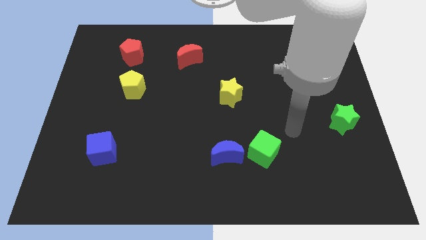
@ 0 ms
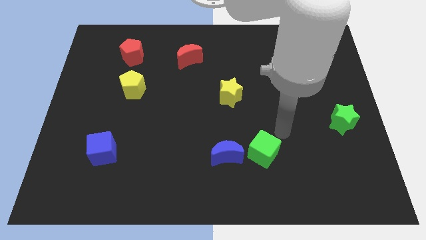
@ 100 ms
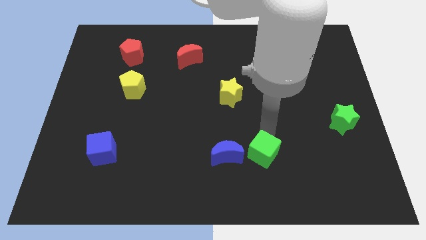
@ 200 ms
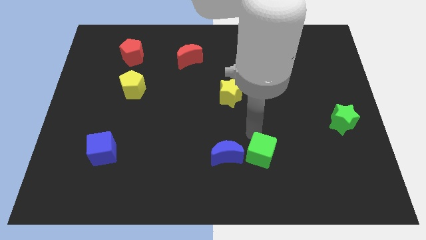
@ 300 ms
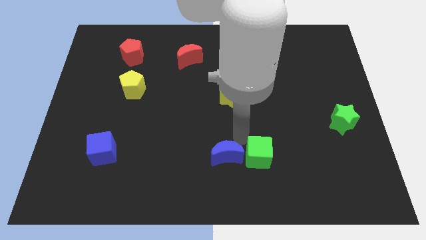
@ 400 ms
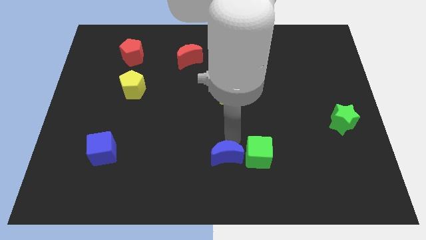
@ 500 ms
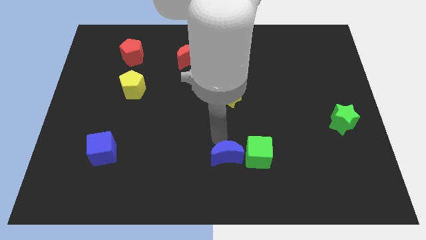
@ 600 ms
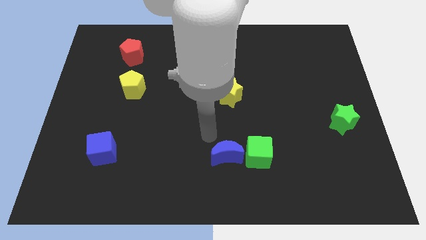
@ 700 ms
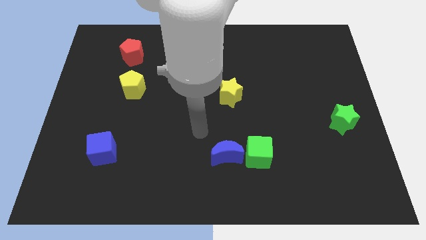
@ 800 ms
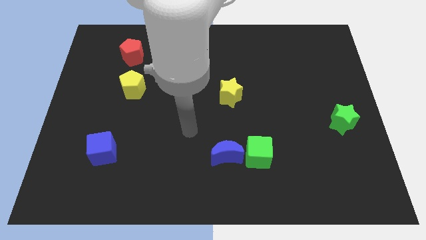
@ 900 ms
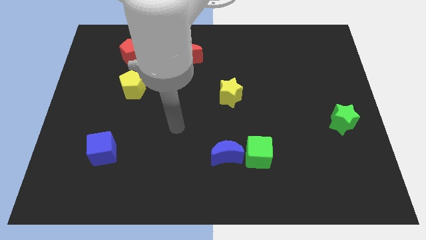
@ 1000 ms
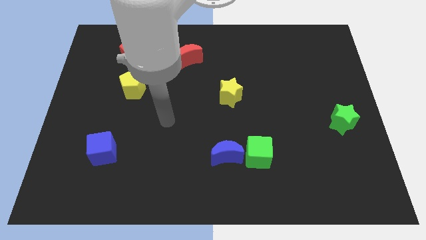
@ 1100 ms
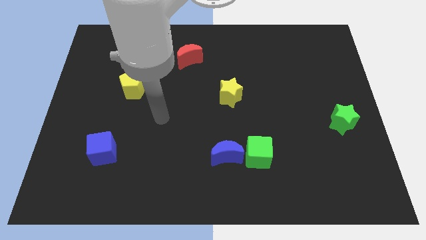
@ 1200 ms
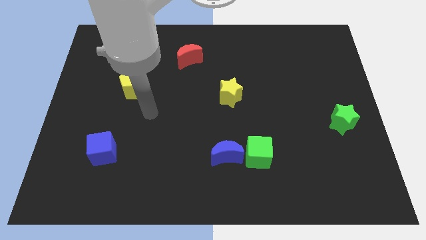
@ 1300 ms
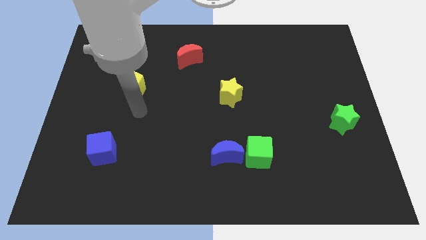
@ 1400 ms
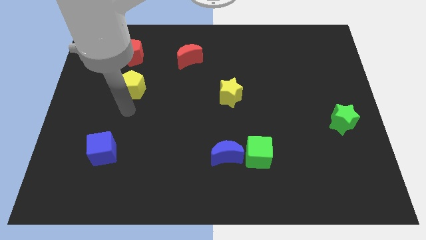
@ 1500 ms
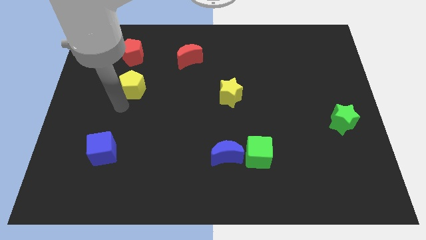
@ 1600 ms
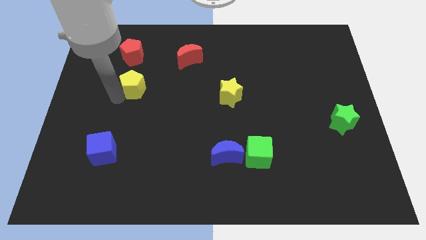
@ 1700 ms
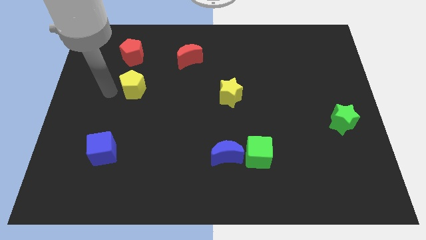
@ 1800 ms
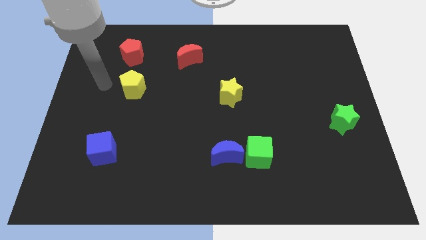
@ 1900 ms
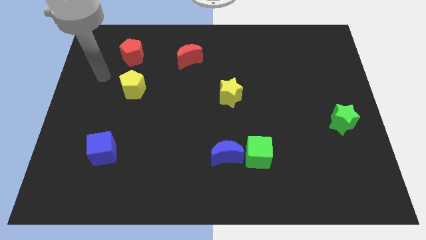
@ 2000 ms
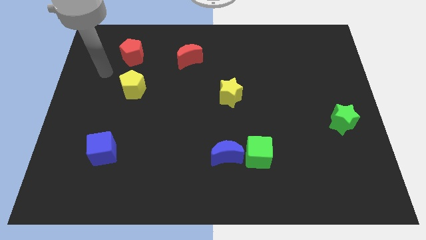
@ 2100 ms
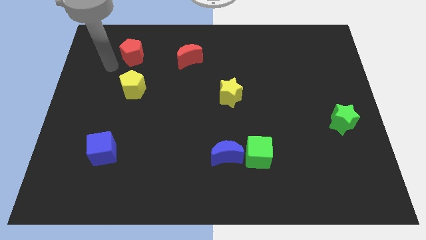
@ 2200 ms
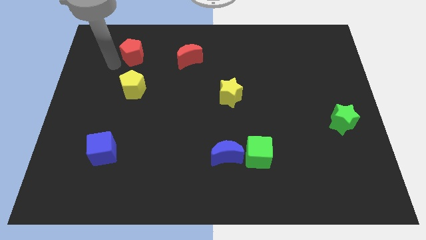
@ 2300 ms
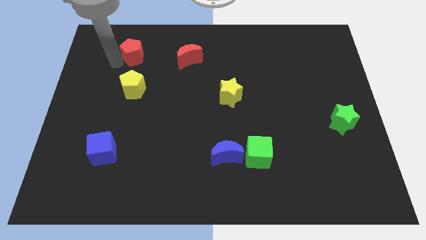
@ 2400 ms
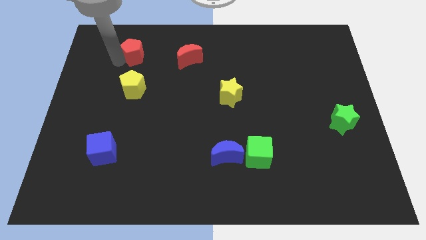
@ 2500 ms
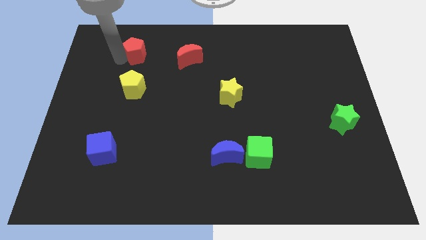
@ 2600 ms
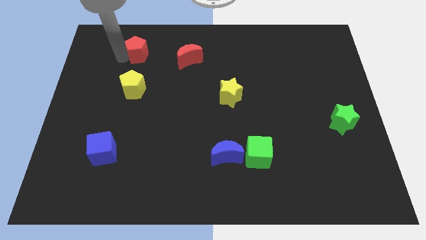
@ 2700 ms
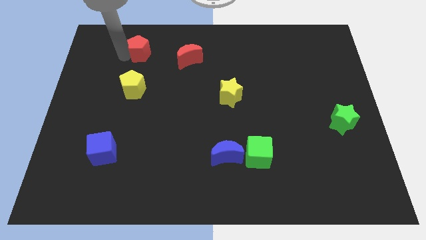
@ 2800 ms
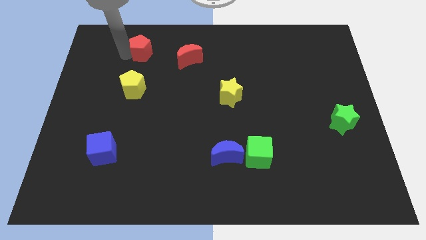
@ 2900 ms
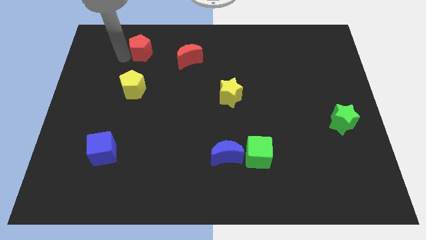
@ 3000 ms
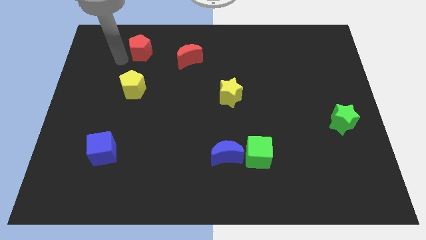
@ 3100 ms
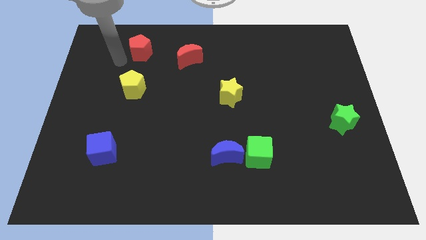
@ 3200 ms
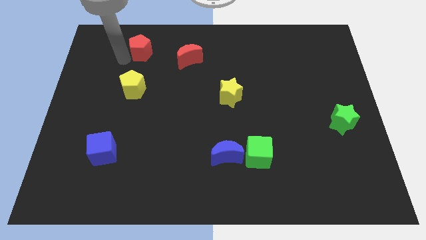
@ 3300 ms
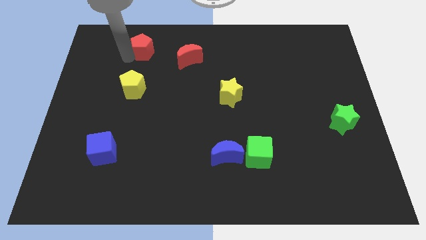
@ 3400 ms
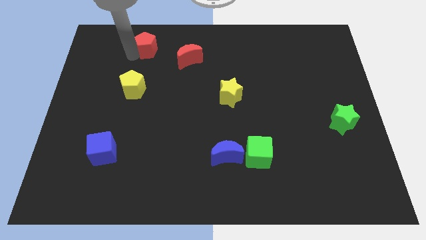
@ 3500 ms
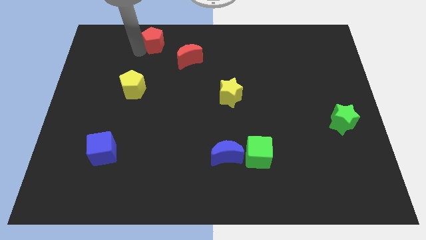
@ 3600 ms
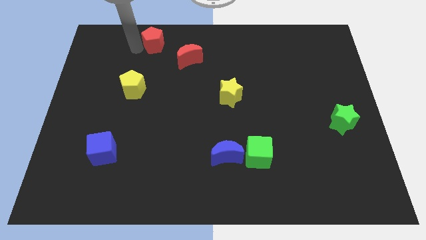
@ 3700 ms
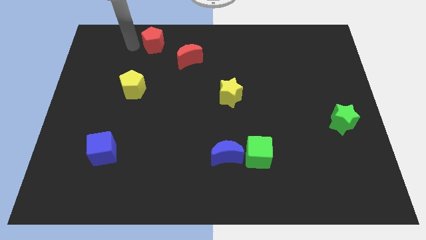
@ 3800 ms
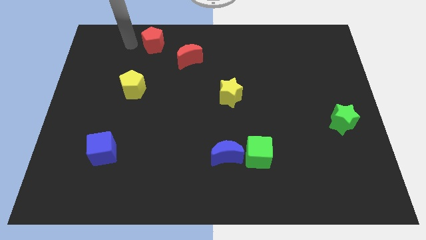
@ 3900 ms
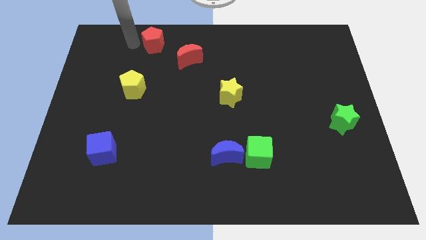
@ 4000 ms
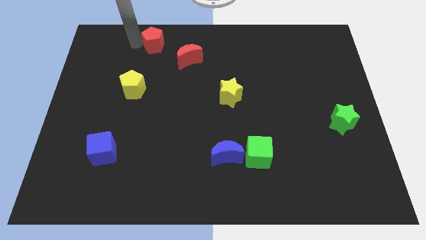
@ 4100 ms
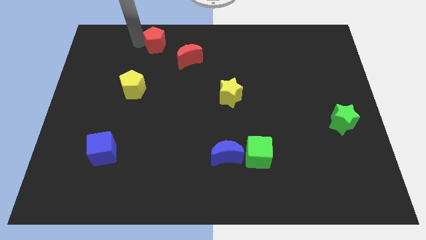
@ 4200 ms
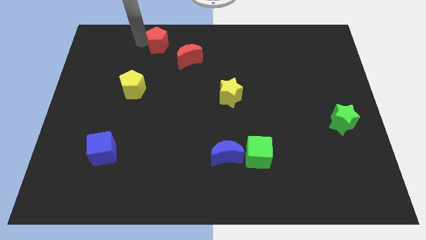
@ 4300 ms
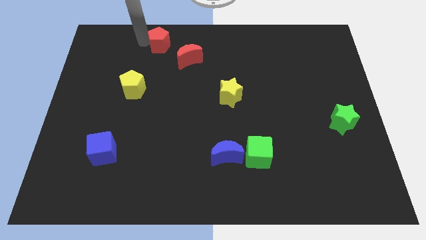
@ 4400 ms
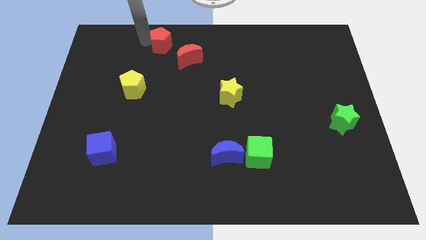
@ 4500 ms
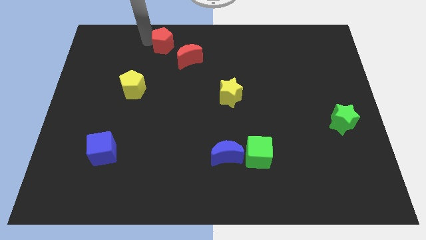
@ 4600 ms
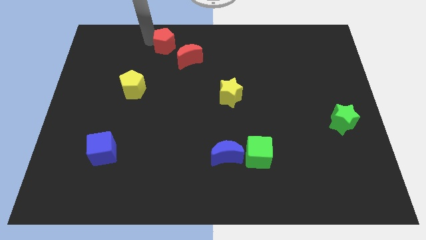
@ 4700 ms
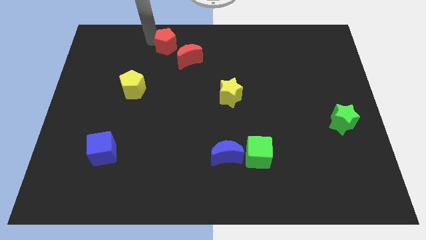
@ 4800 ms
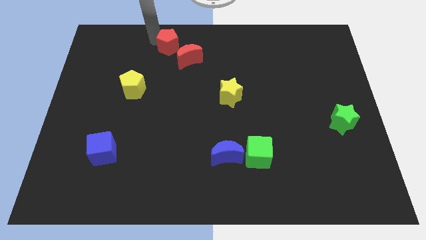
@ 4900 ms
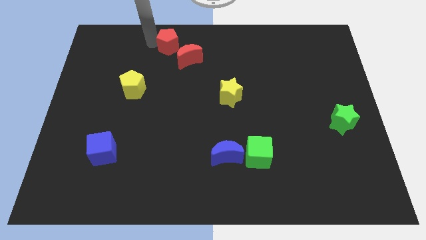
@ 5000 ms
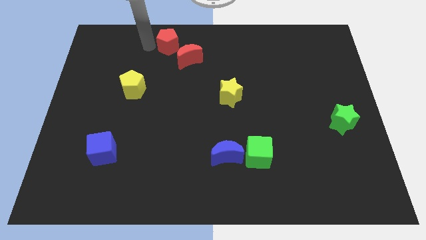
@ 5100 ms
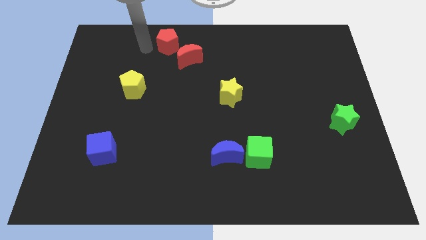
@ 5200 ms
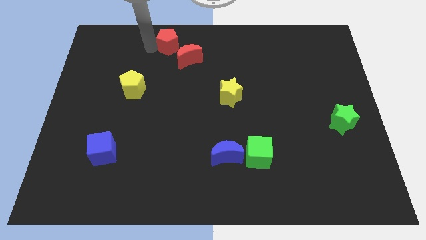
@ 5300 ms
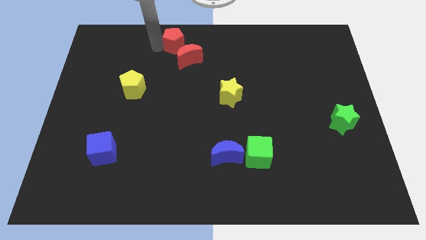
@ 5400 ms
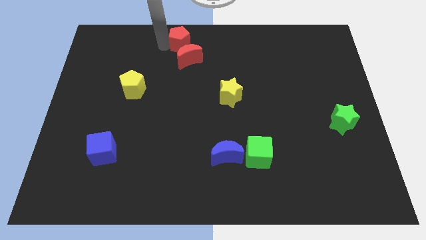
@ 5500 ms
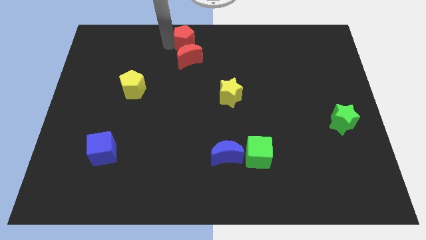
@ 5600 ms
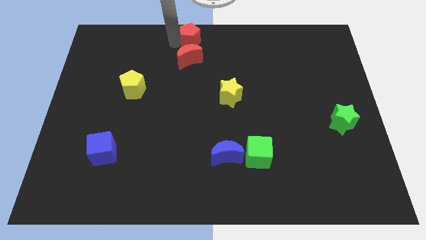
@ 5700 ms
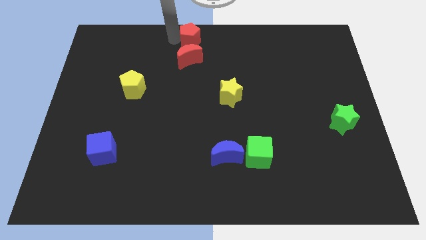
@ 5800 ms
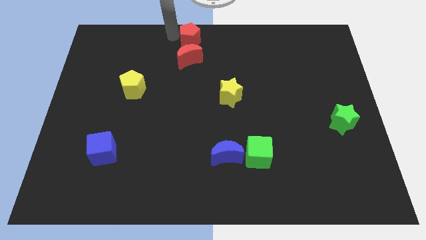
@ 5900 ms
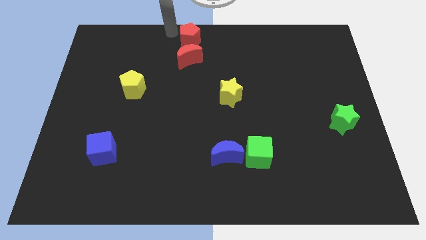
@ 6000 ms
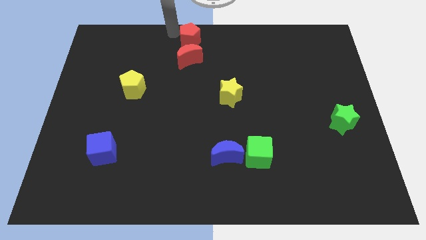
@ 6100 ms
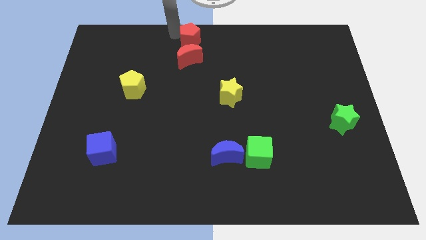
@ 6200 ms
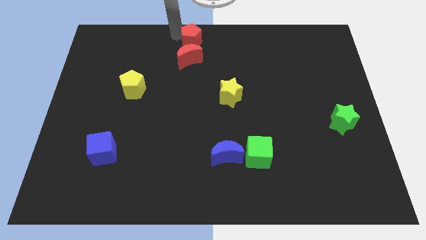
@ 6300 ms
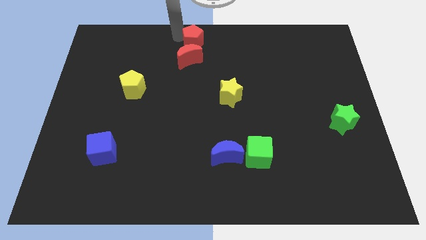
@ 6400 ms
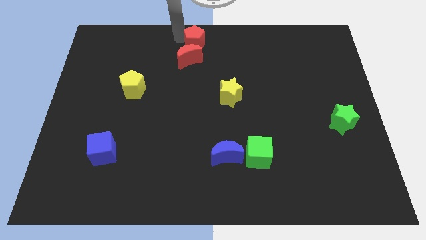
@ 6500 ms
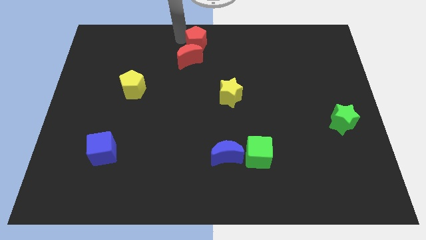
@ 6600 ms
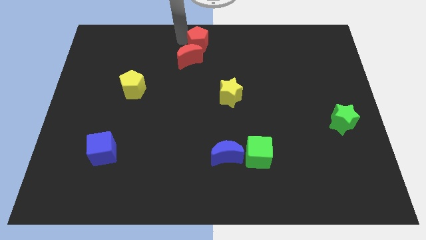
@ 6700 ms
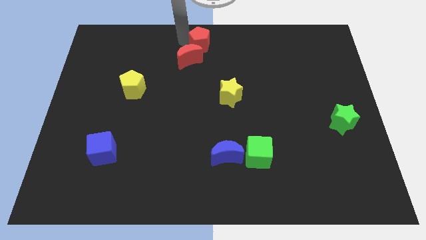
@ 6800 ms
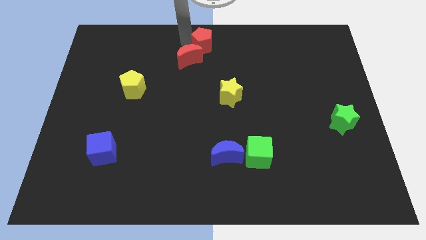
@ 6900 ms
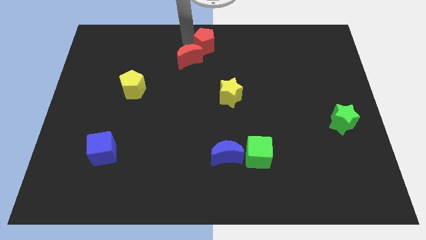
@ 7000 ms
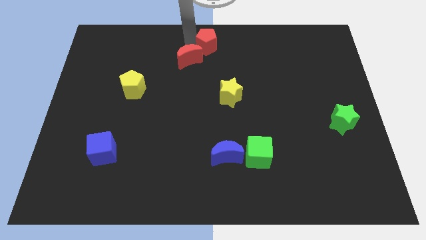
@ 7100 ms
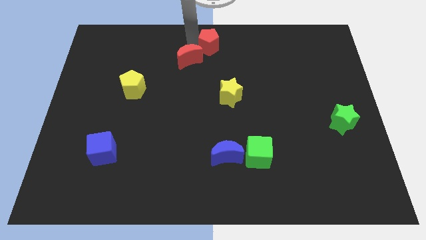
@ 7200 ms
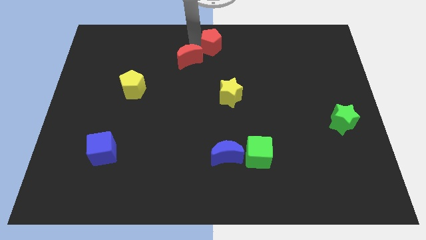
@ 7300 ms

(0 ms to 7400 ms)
push the red pentagon to the right

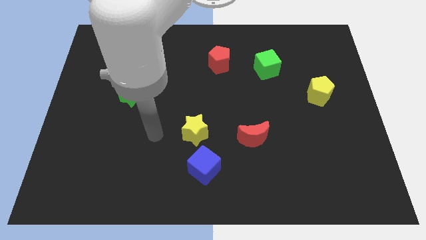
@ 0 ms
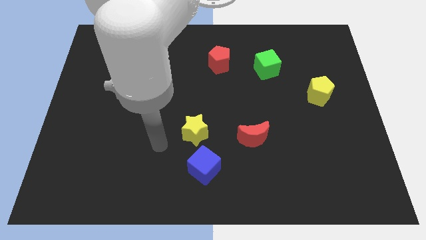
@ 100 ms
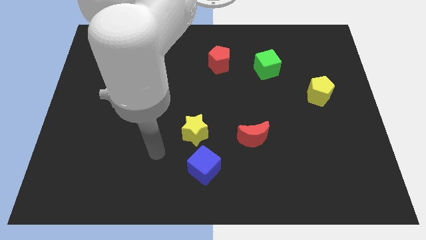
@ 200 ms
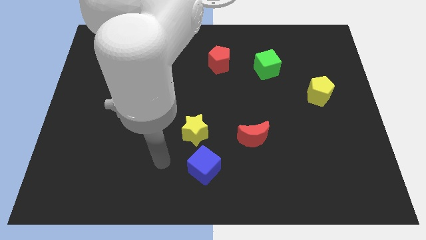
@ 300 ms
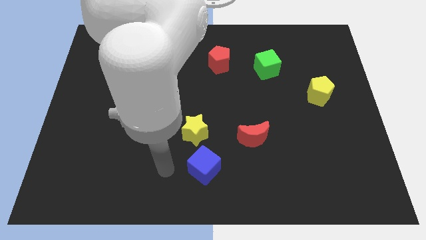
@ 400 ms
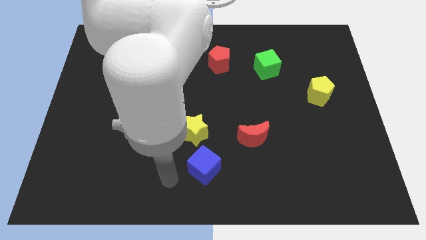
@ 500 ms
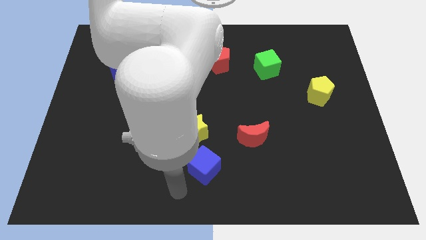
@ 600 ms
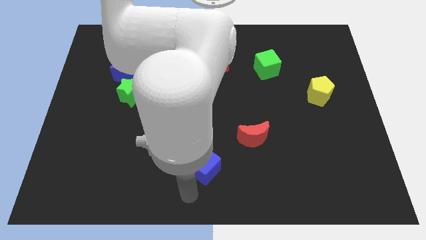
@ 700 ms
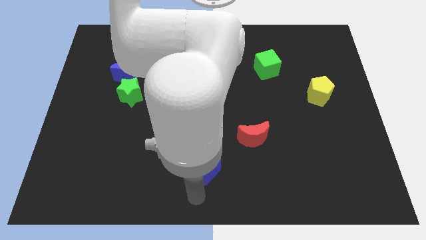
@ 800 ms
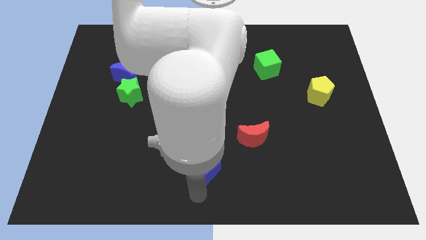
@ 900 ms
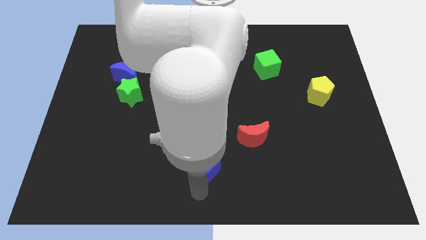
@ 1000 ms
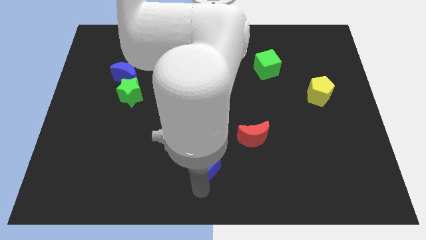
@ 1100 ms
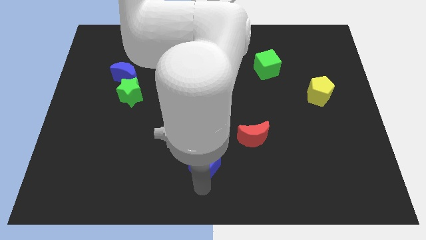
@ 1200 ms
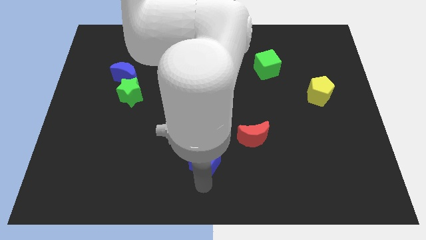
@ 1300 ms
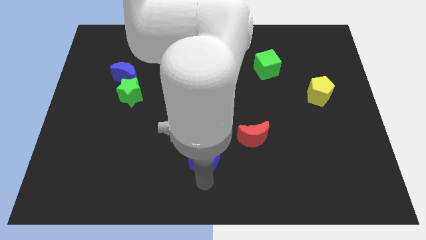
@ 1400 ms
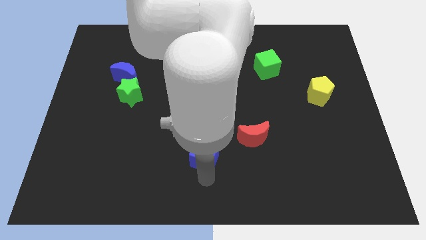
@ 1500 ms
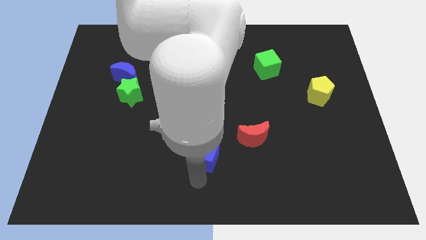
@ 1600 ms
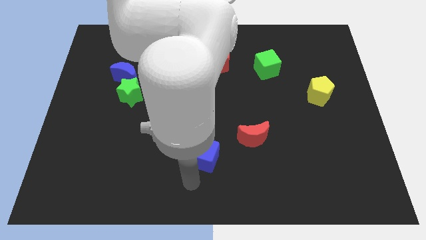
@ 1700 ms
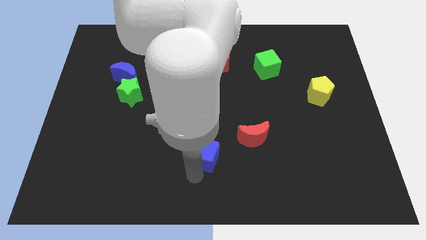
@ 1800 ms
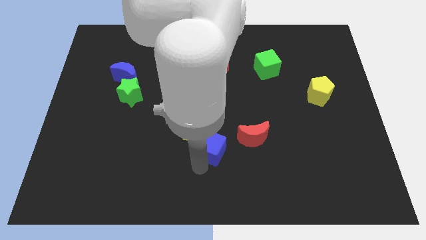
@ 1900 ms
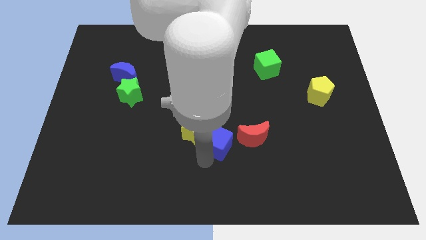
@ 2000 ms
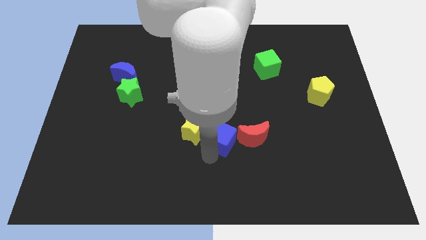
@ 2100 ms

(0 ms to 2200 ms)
move the blue cube diagonally upwards and right a bit
